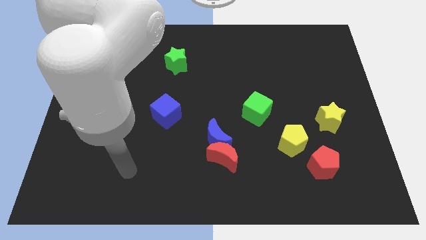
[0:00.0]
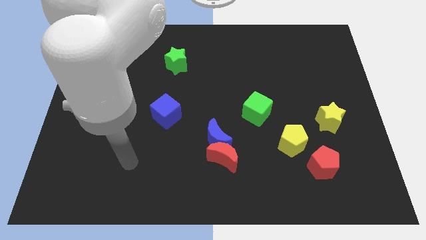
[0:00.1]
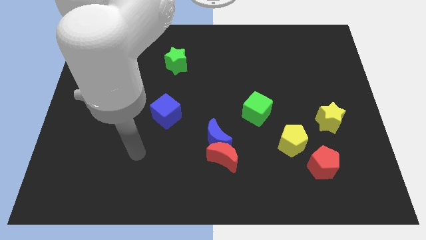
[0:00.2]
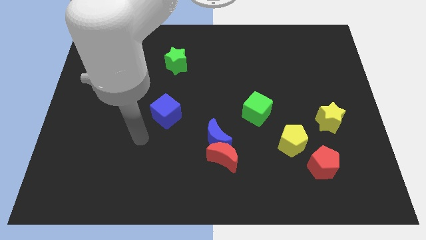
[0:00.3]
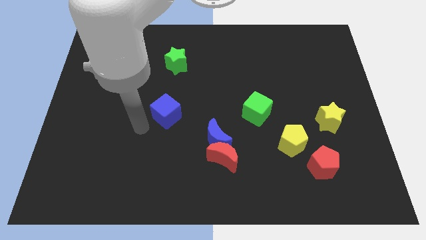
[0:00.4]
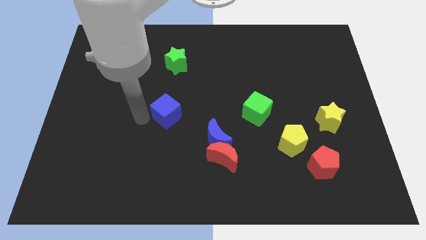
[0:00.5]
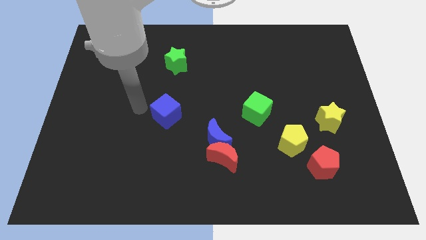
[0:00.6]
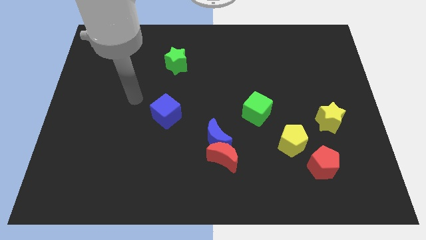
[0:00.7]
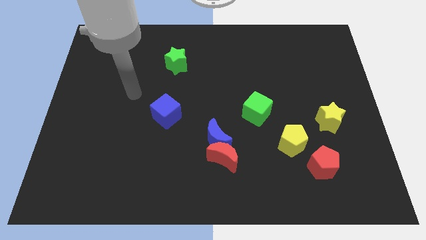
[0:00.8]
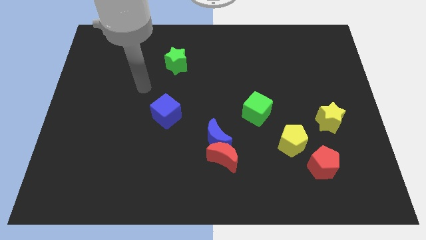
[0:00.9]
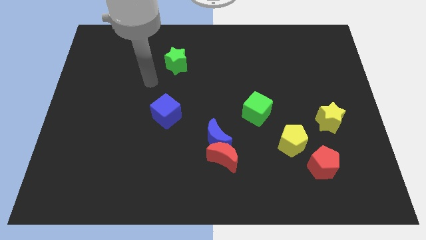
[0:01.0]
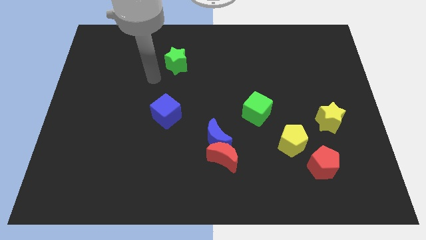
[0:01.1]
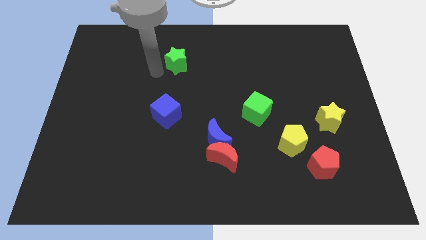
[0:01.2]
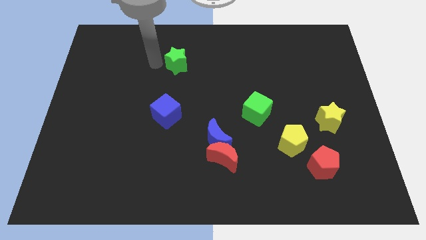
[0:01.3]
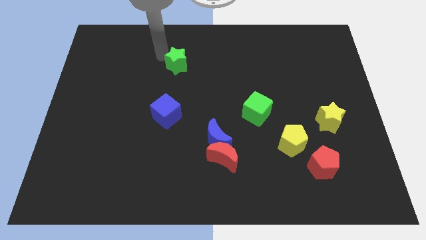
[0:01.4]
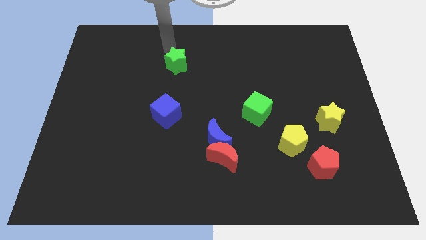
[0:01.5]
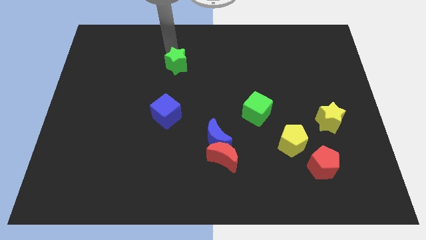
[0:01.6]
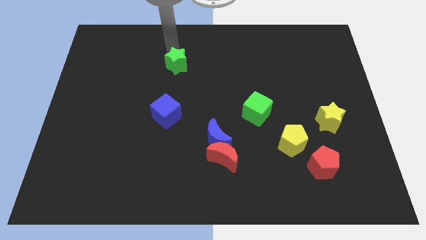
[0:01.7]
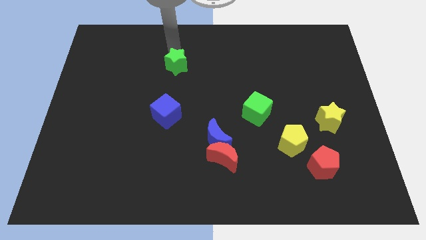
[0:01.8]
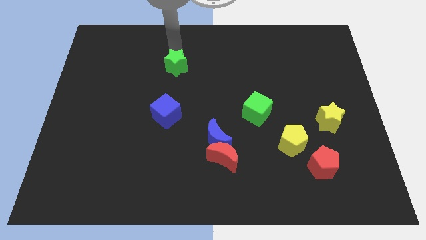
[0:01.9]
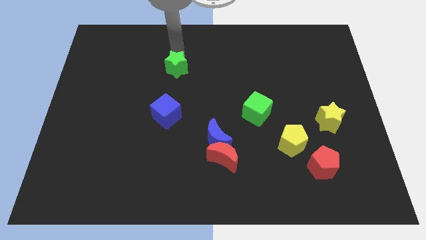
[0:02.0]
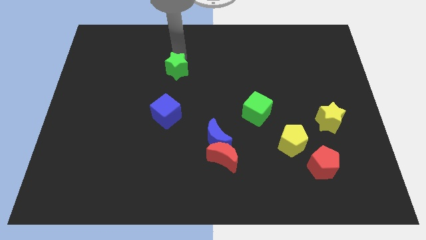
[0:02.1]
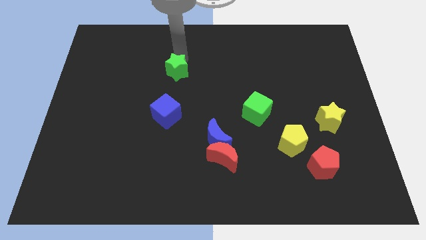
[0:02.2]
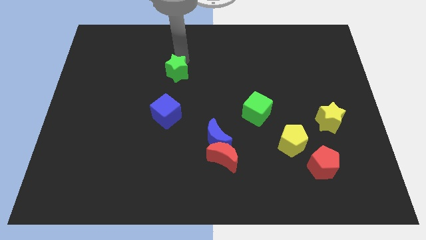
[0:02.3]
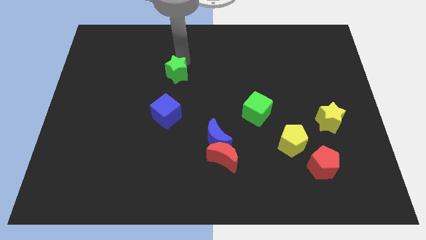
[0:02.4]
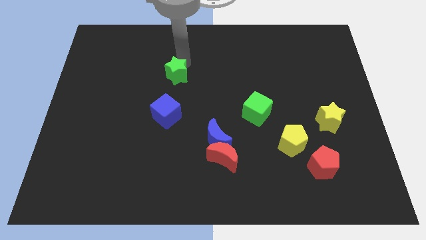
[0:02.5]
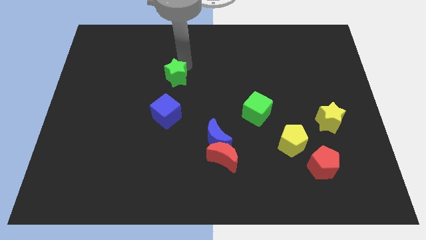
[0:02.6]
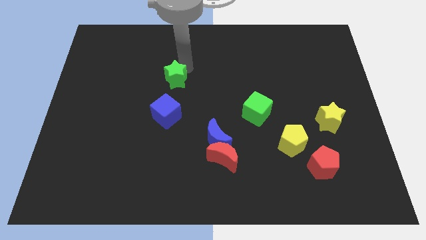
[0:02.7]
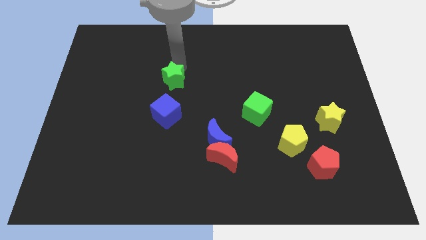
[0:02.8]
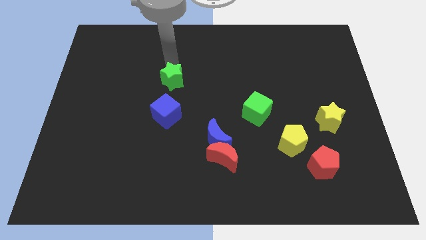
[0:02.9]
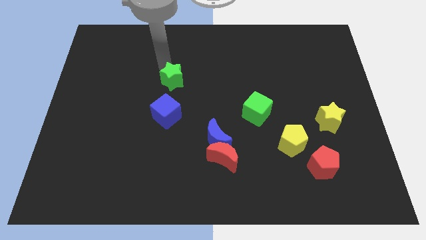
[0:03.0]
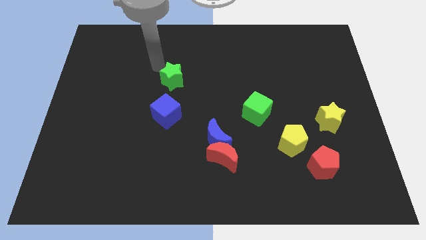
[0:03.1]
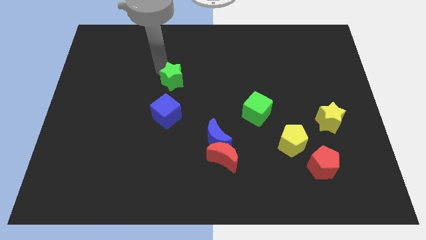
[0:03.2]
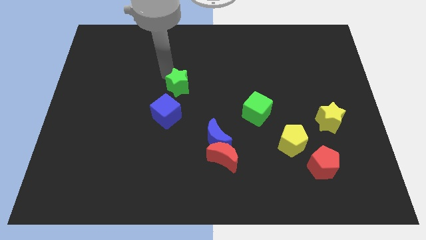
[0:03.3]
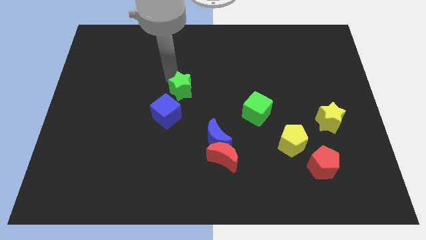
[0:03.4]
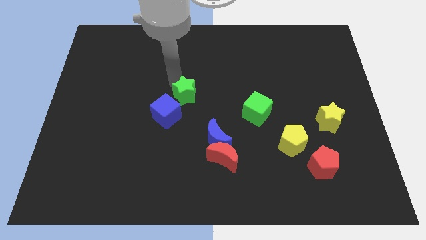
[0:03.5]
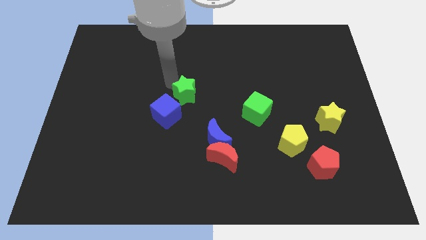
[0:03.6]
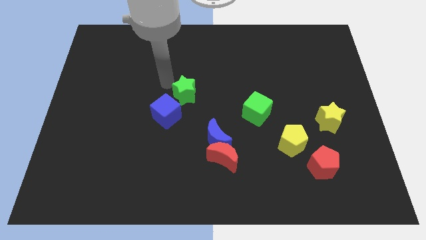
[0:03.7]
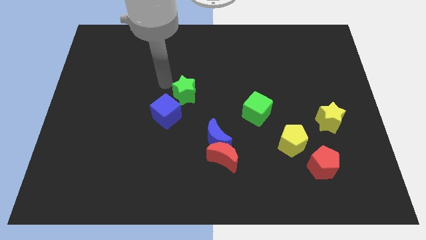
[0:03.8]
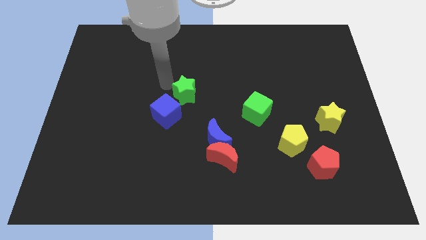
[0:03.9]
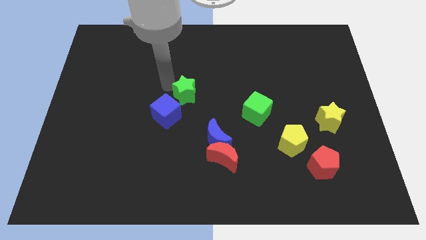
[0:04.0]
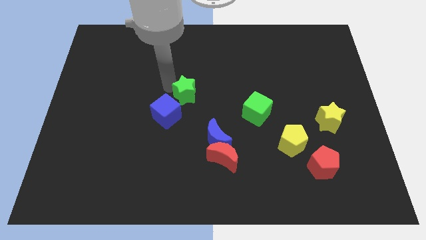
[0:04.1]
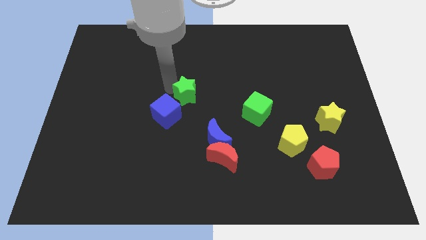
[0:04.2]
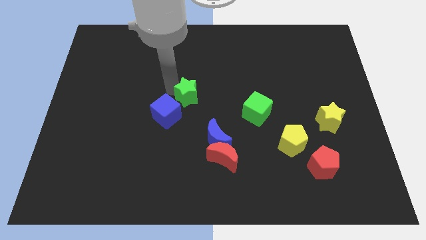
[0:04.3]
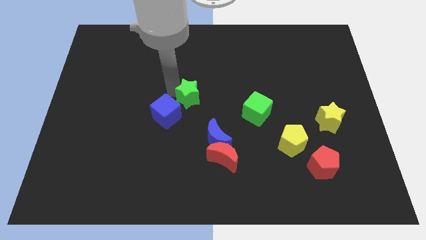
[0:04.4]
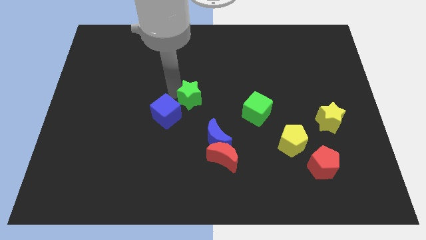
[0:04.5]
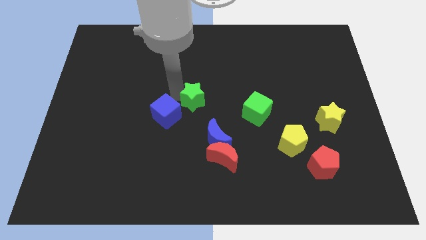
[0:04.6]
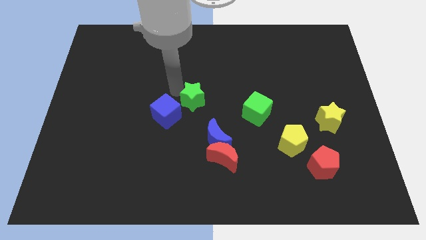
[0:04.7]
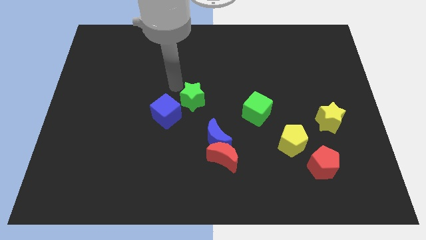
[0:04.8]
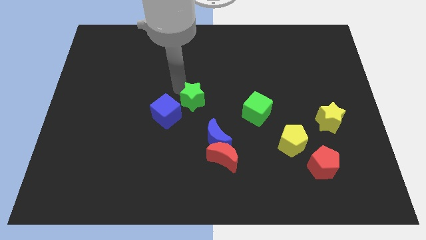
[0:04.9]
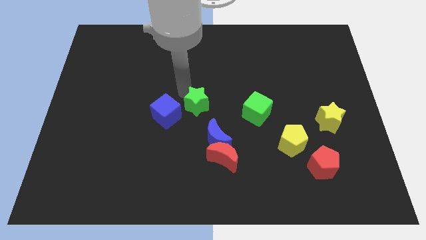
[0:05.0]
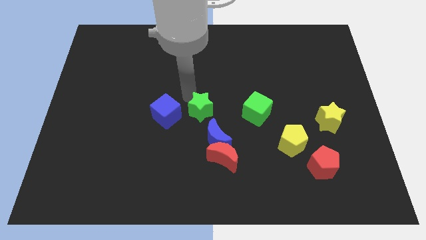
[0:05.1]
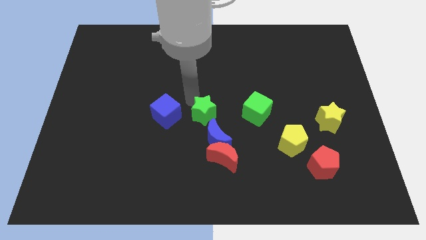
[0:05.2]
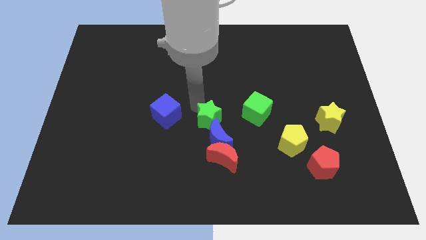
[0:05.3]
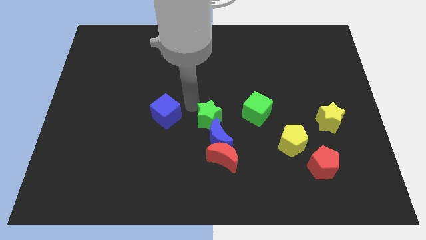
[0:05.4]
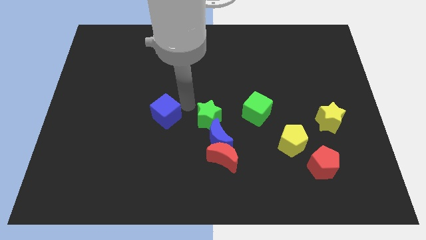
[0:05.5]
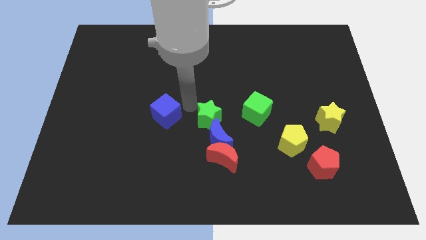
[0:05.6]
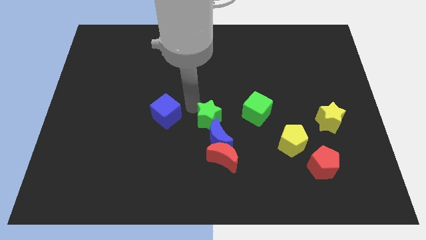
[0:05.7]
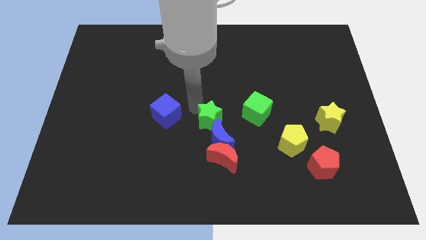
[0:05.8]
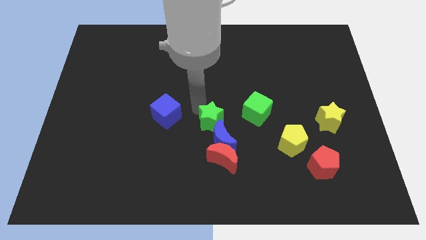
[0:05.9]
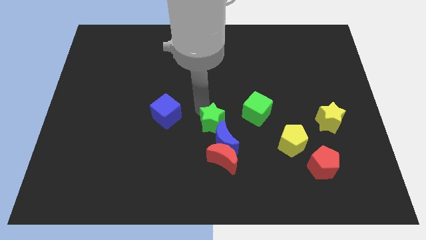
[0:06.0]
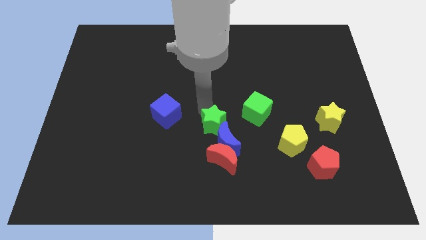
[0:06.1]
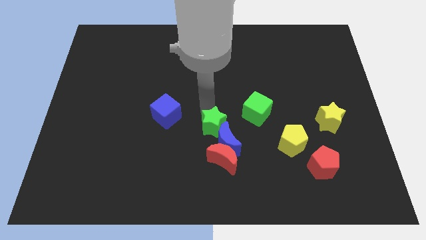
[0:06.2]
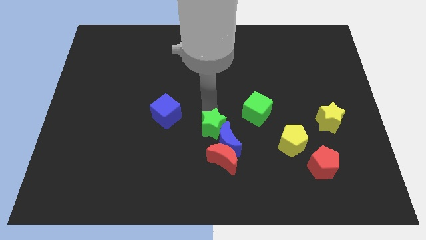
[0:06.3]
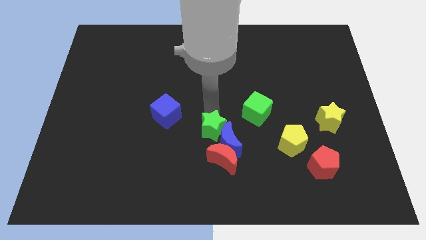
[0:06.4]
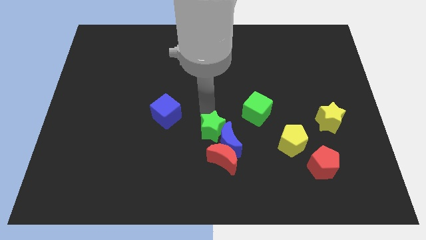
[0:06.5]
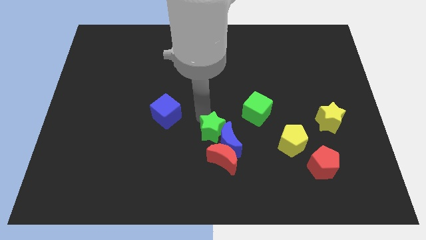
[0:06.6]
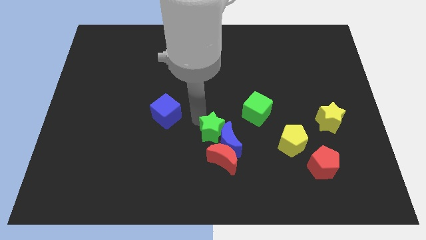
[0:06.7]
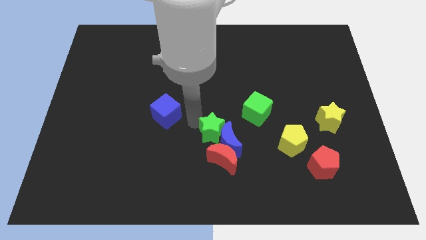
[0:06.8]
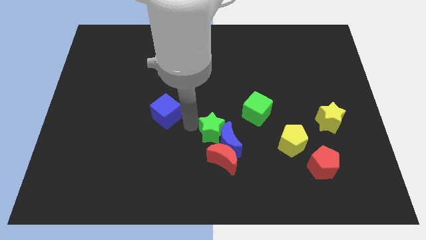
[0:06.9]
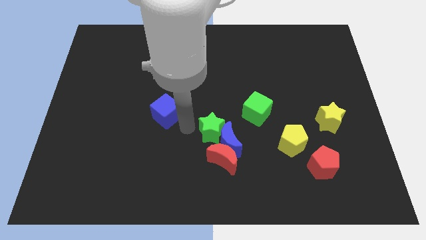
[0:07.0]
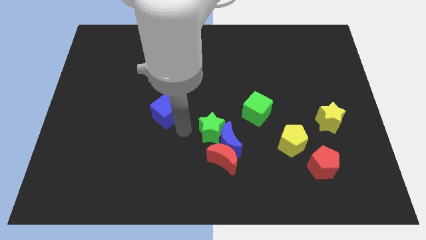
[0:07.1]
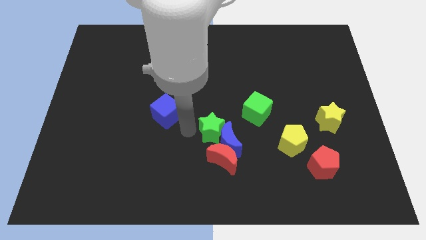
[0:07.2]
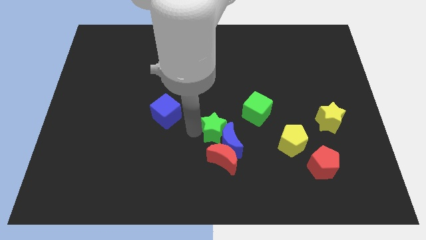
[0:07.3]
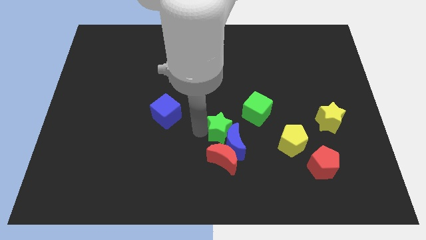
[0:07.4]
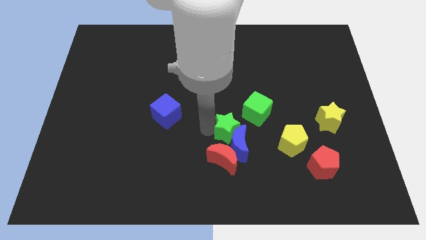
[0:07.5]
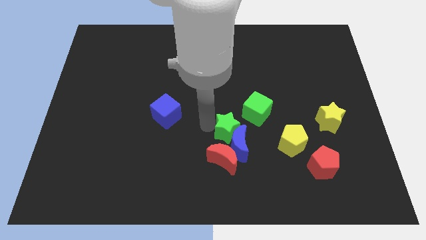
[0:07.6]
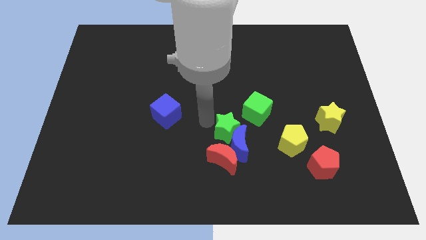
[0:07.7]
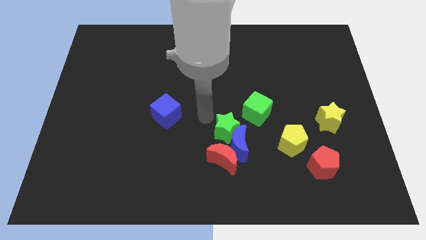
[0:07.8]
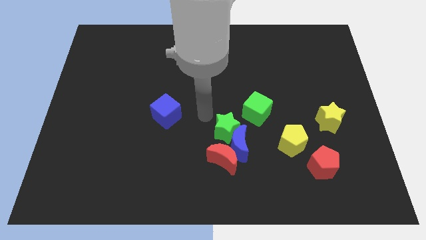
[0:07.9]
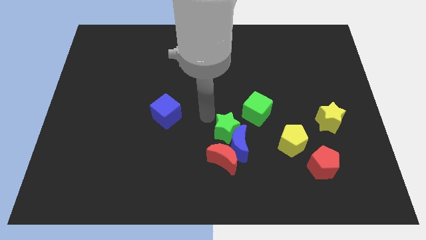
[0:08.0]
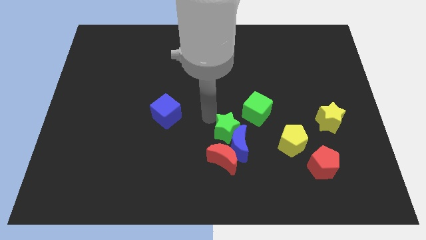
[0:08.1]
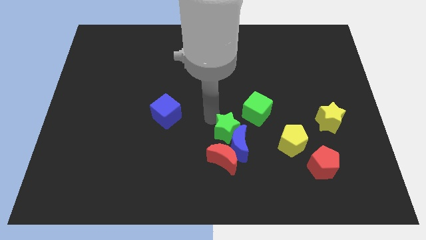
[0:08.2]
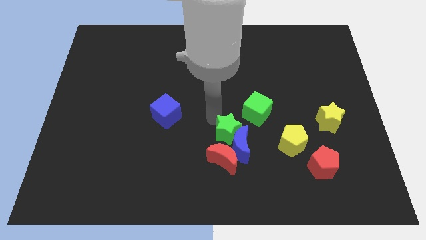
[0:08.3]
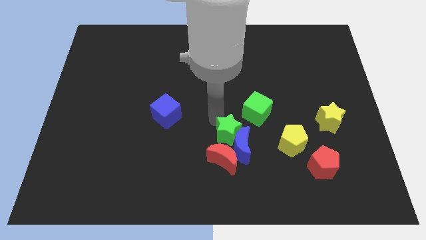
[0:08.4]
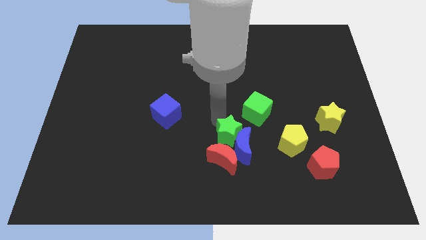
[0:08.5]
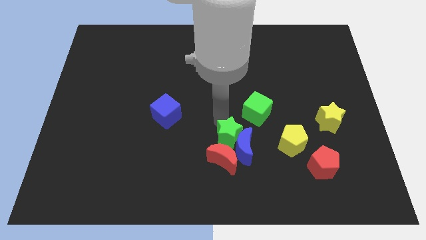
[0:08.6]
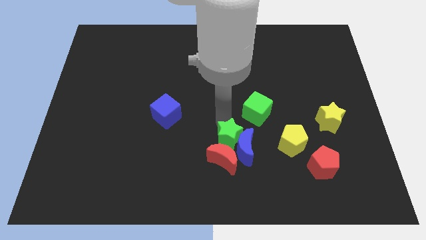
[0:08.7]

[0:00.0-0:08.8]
put the green star towards the red moon
